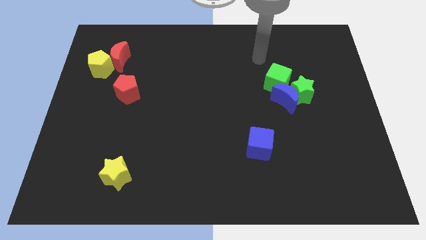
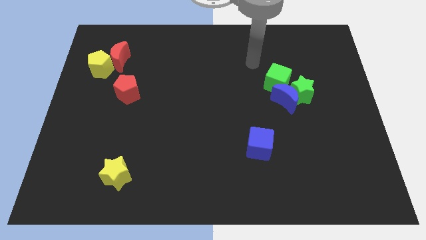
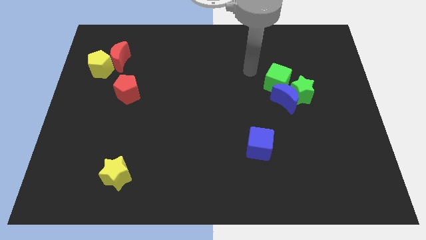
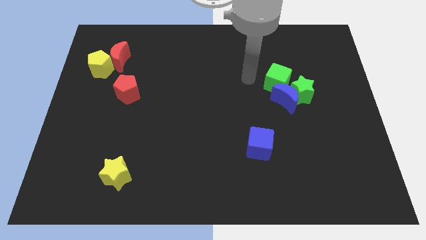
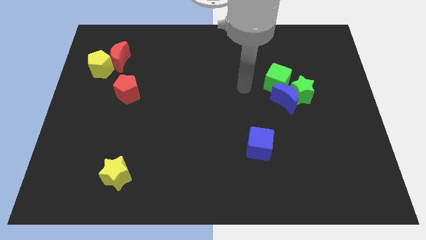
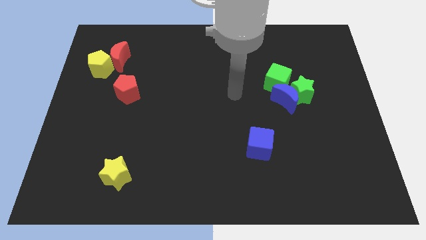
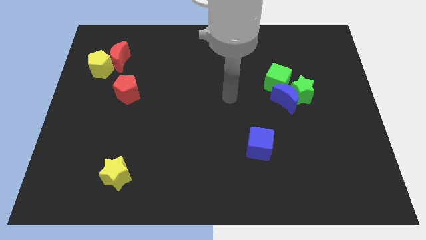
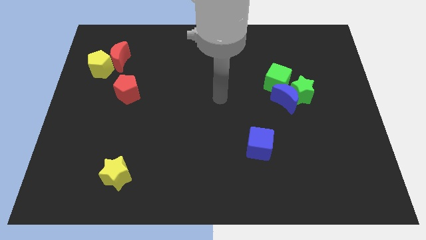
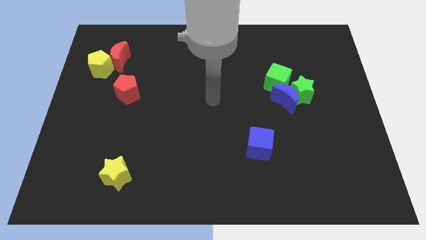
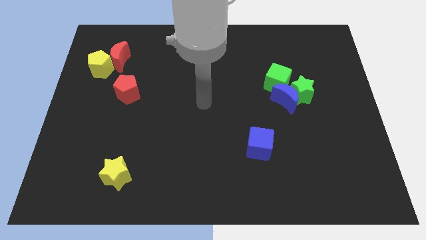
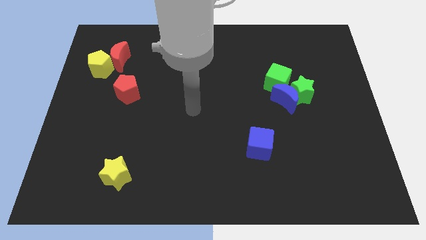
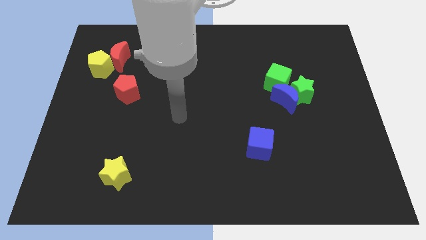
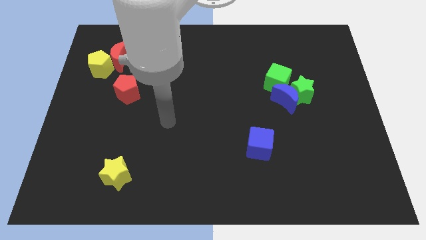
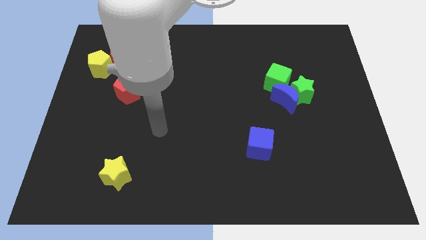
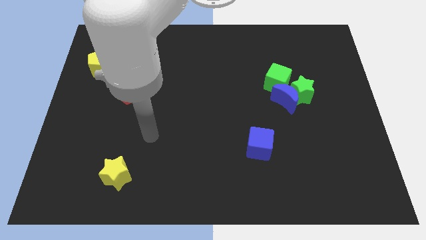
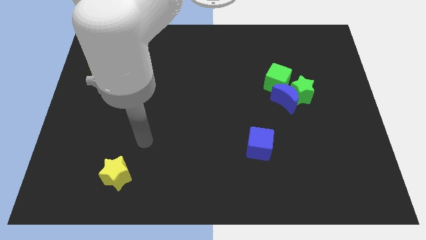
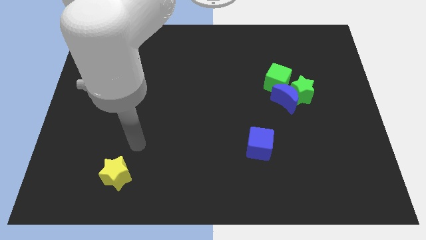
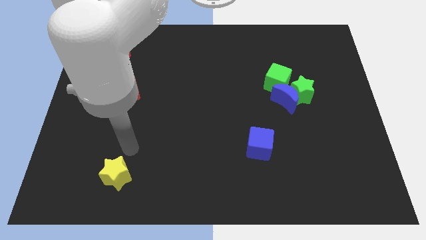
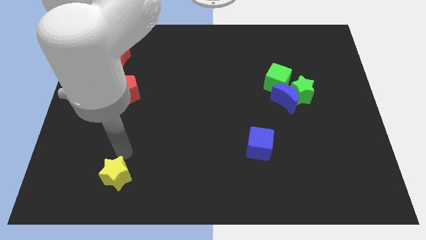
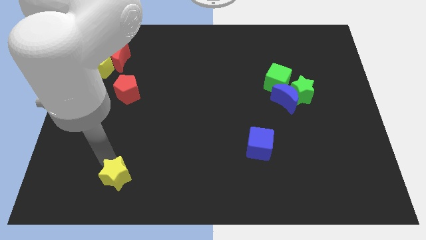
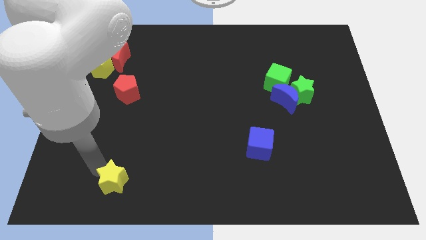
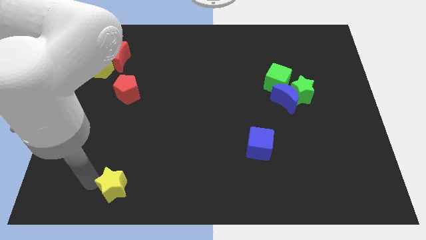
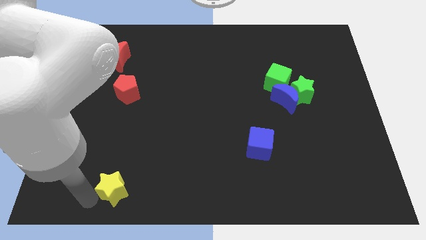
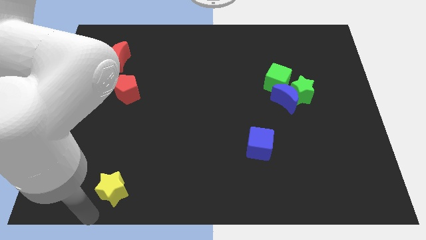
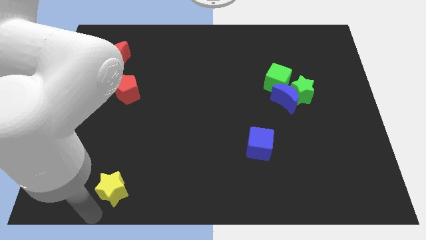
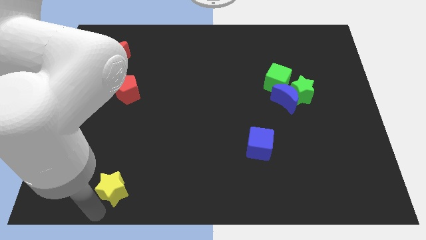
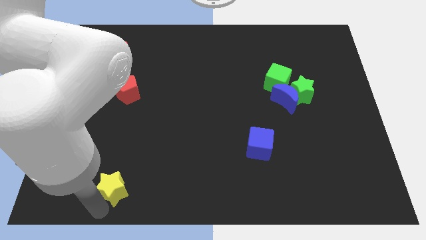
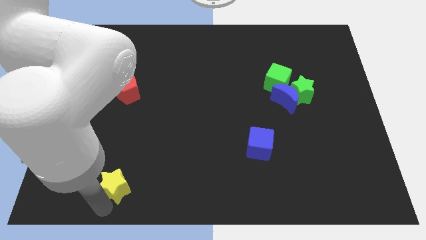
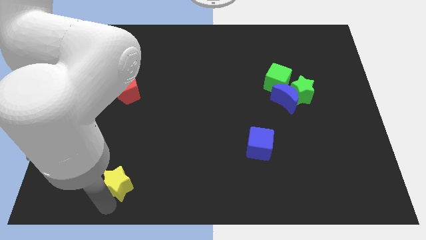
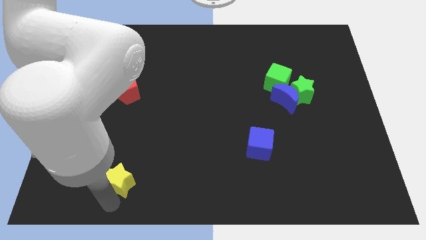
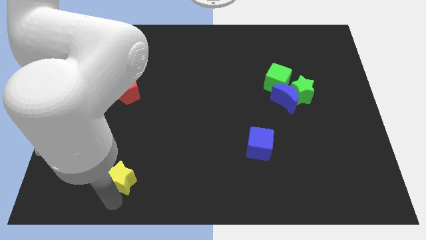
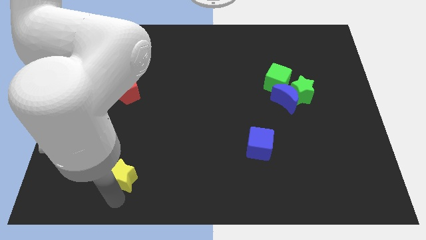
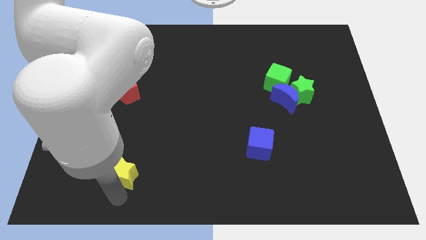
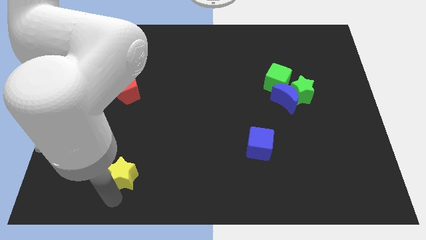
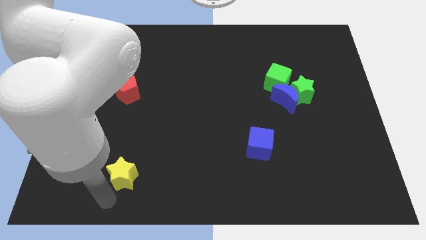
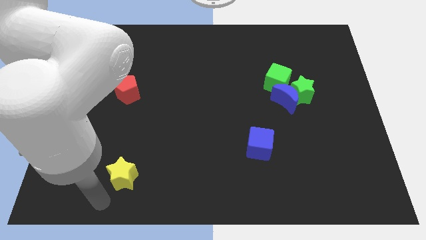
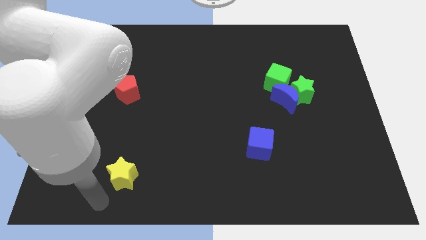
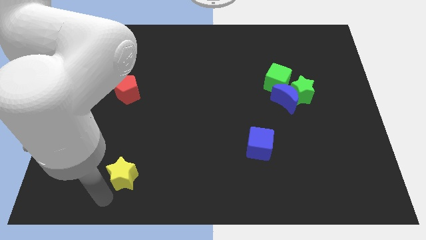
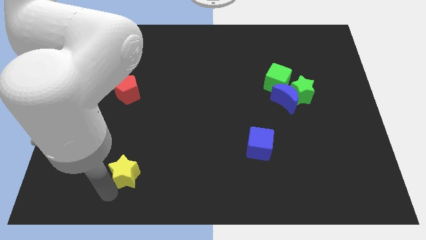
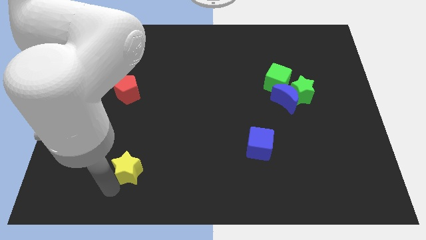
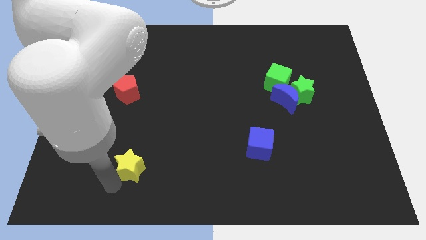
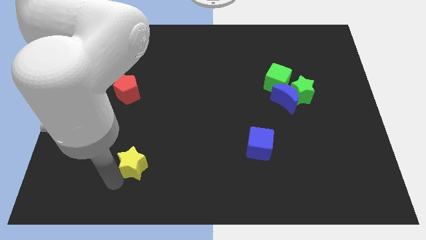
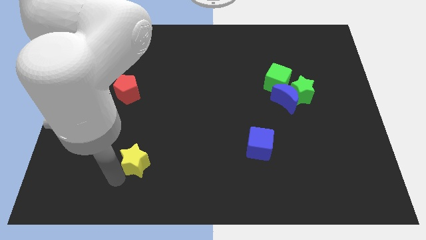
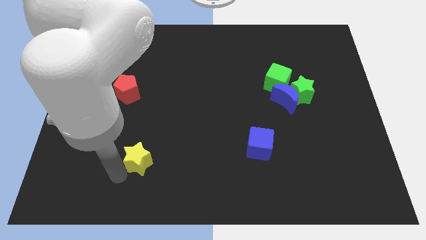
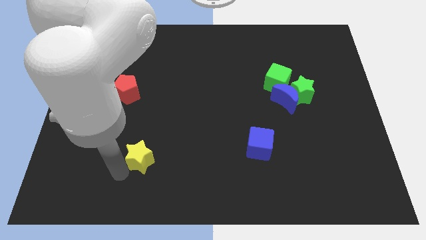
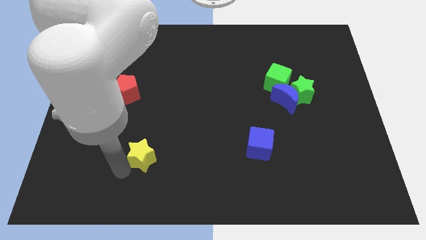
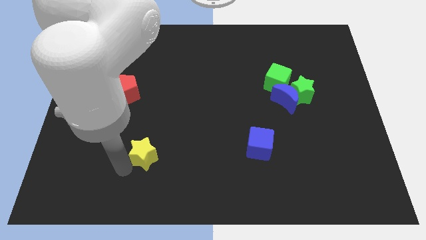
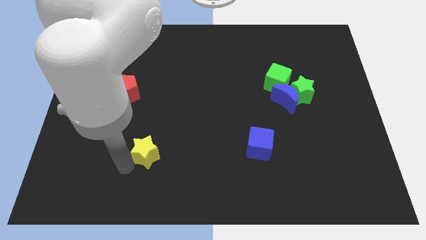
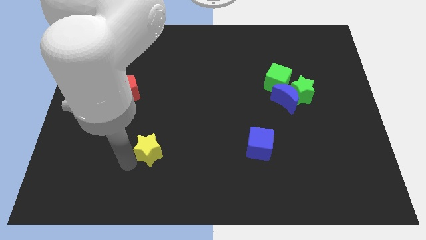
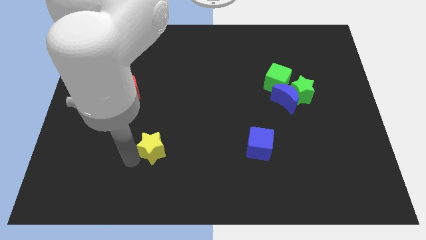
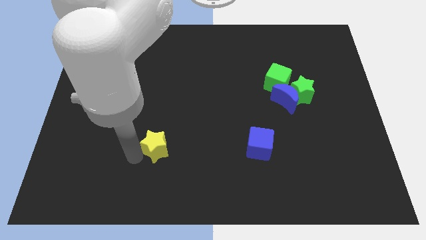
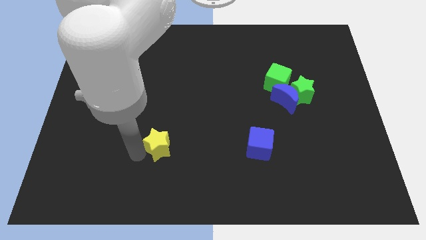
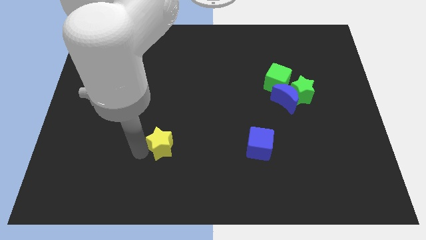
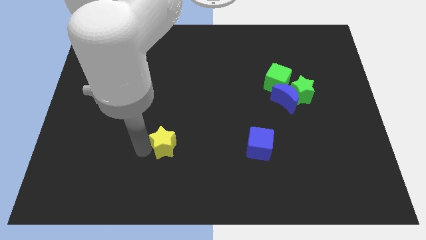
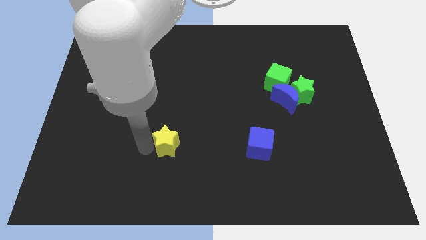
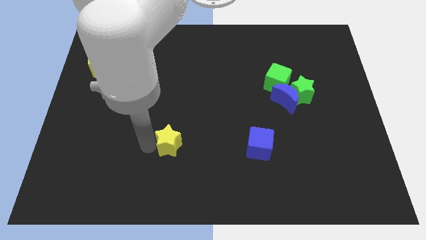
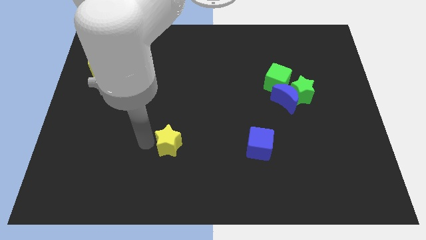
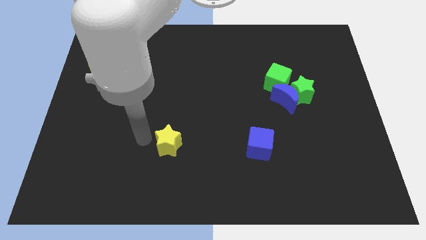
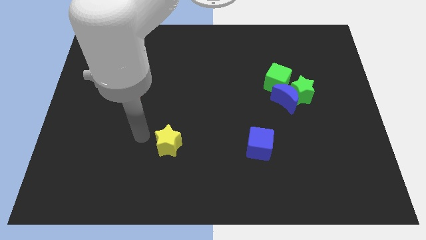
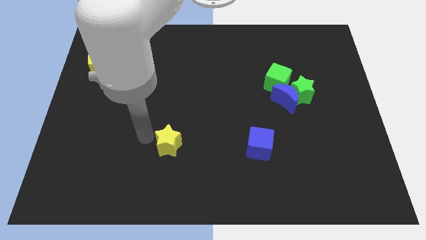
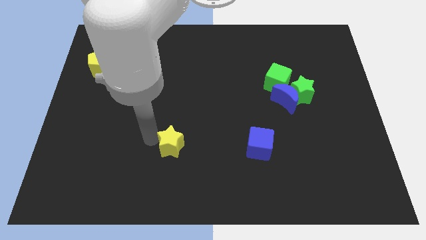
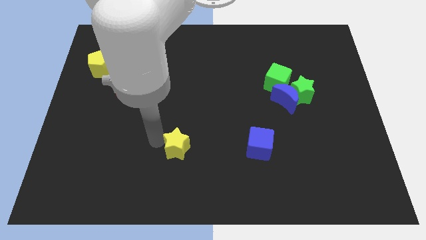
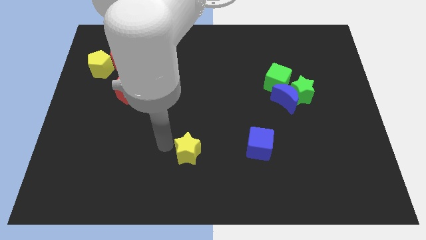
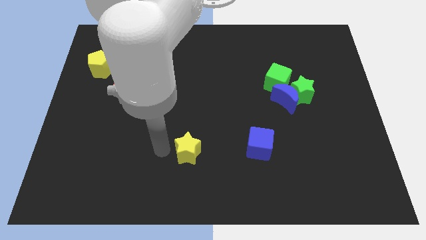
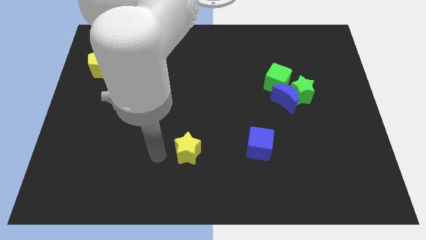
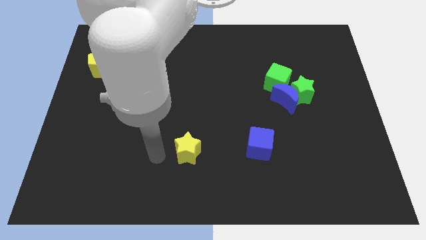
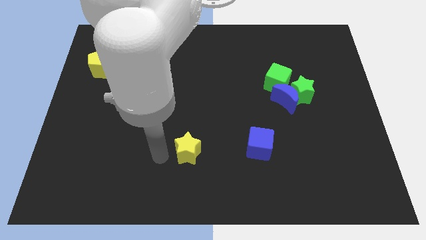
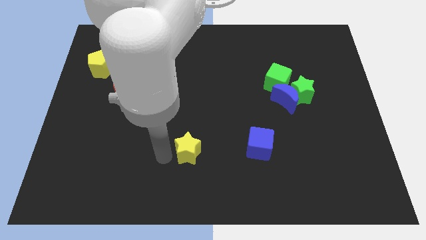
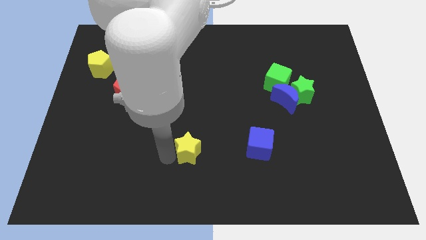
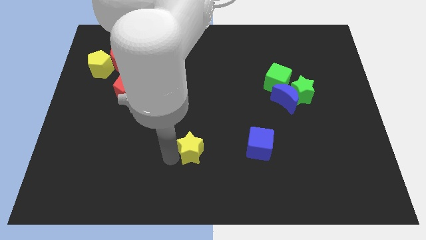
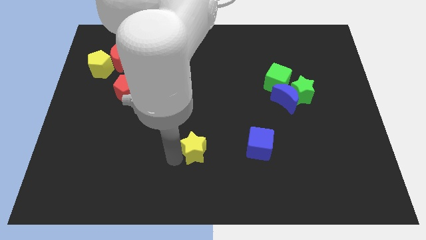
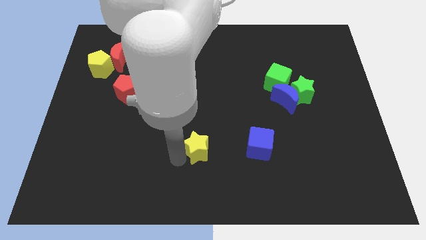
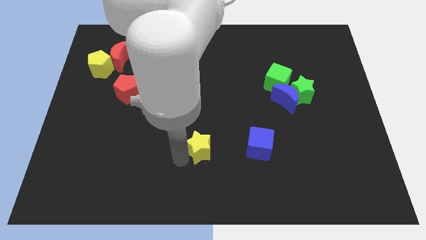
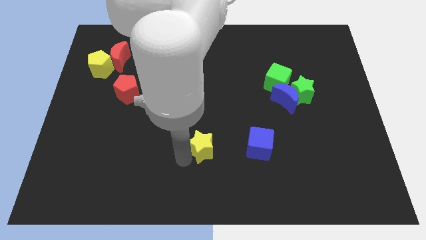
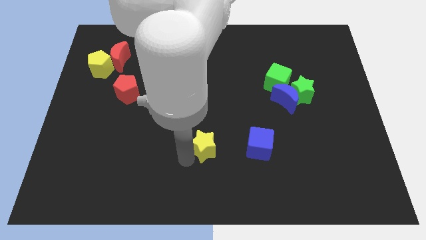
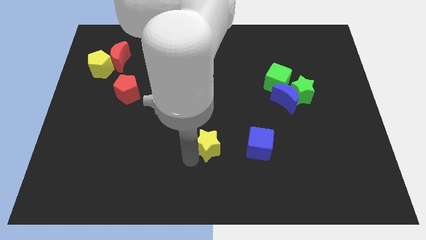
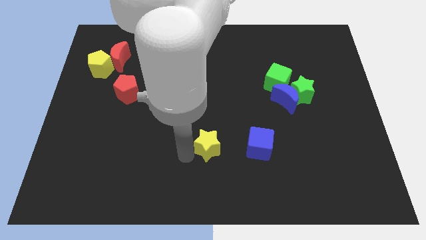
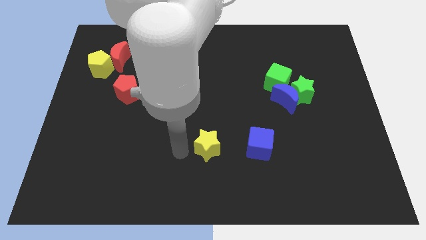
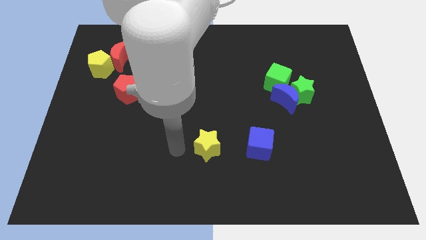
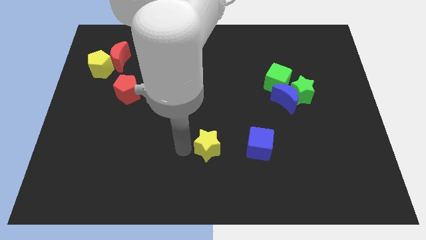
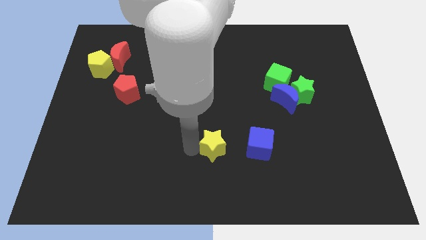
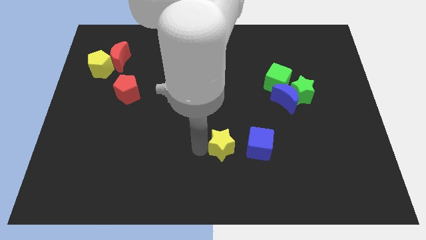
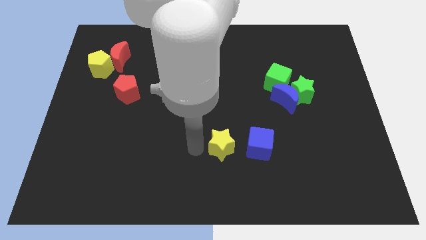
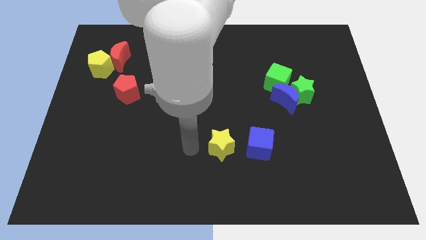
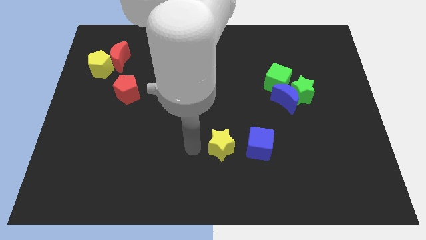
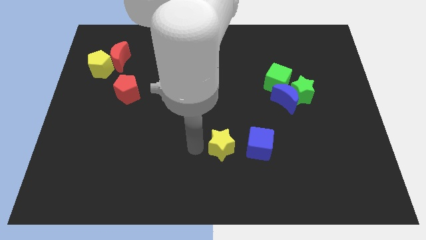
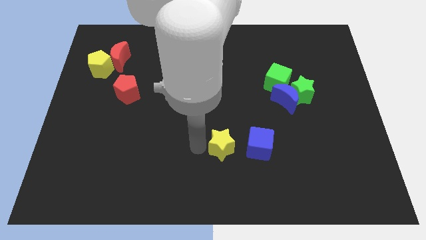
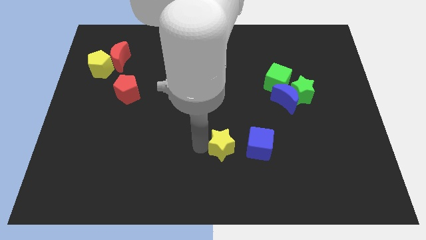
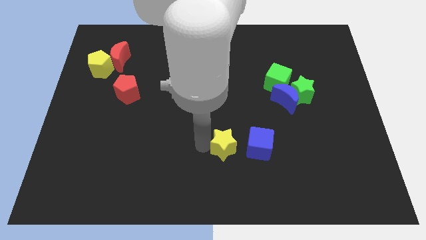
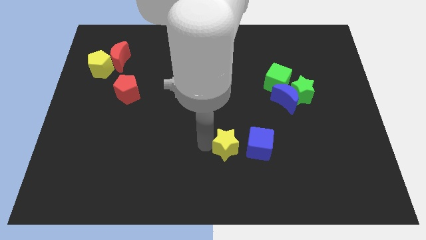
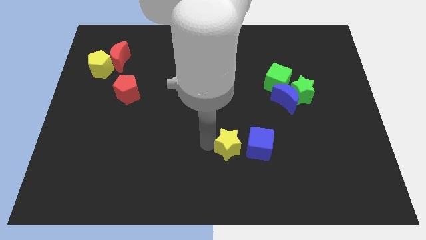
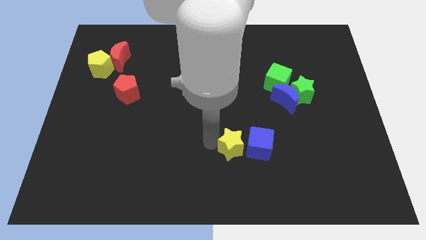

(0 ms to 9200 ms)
push the yellow star next to the blue cube
